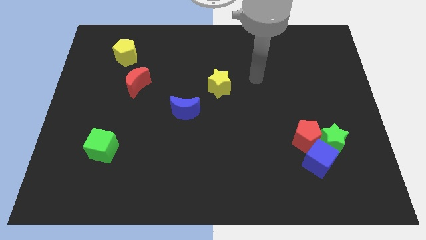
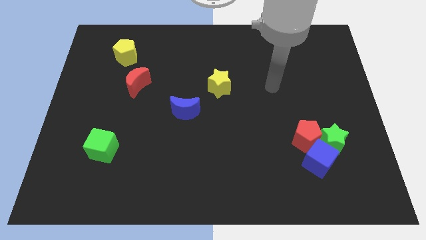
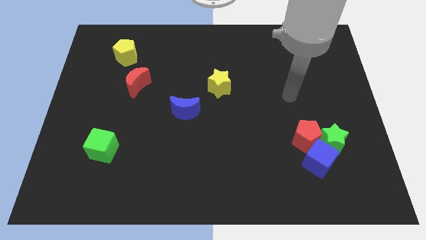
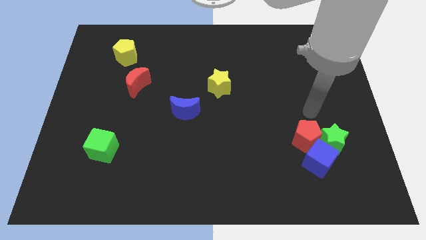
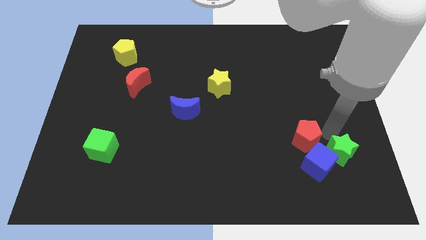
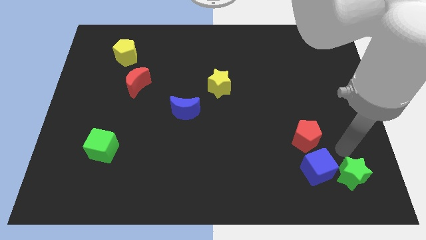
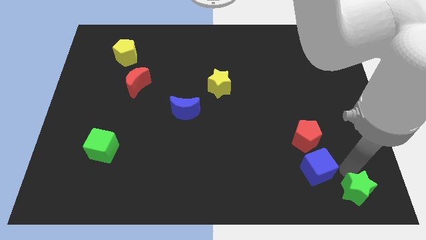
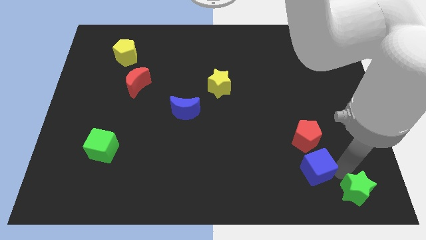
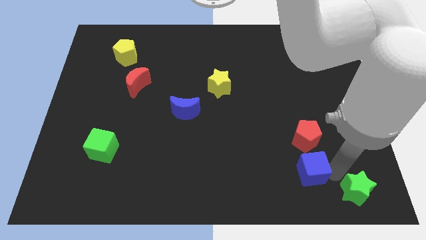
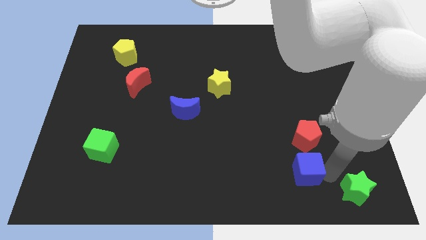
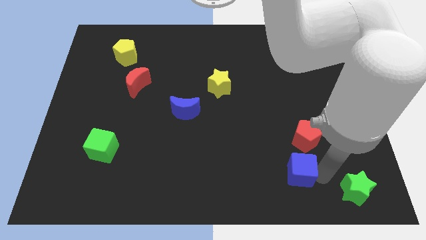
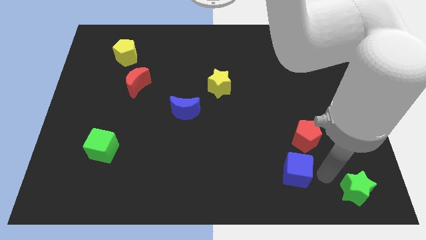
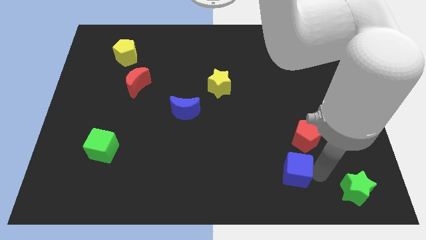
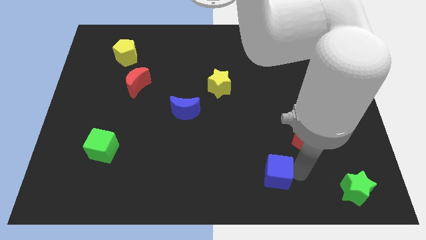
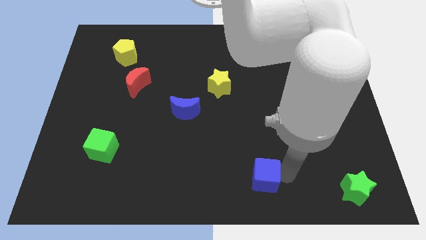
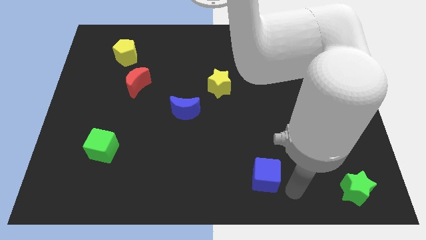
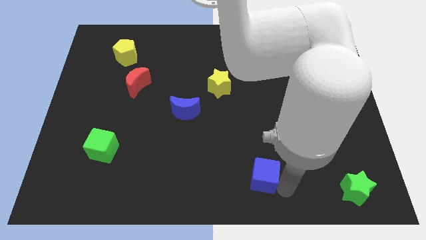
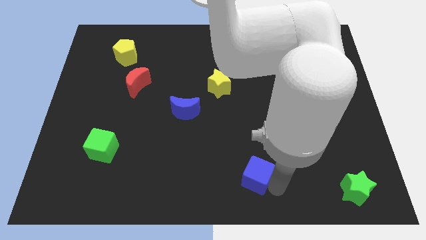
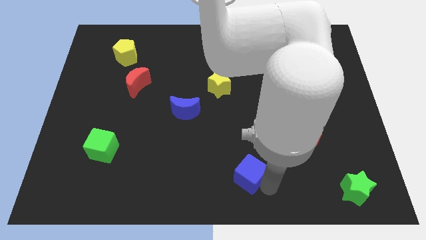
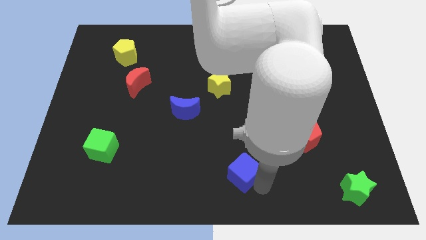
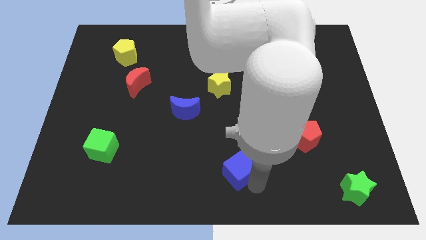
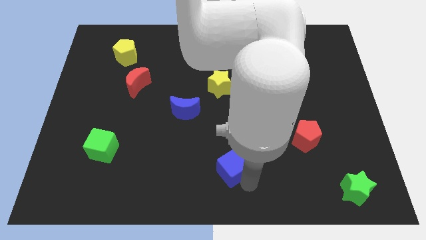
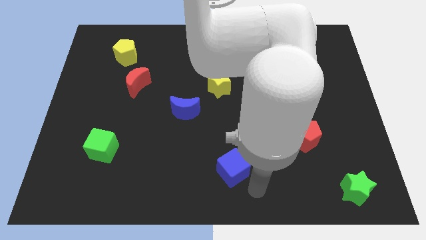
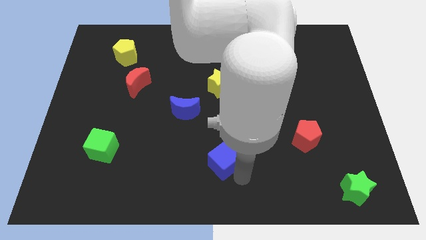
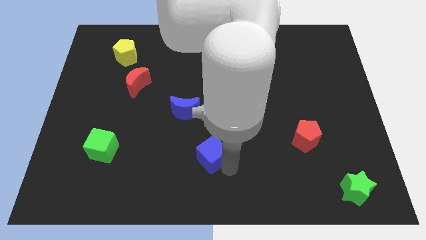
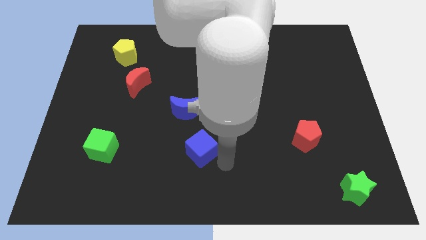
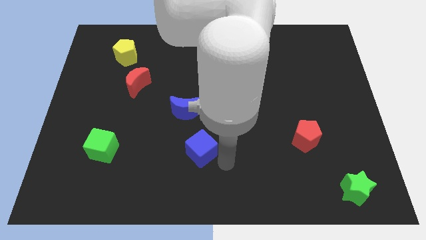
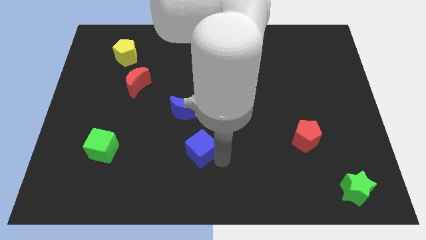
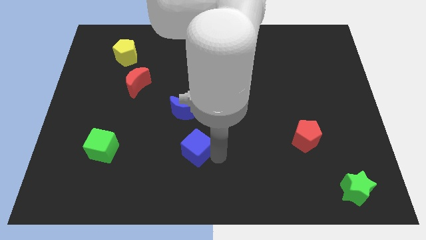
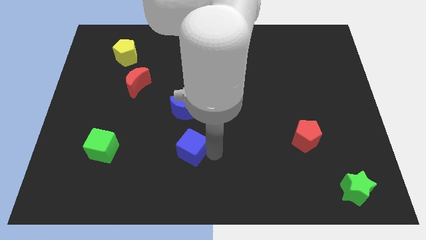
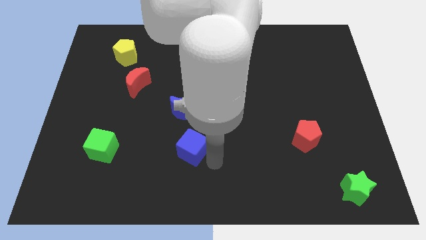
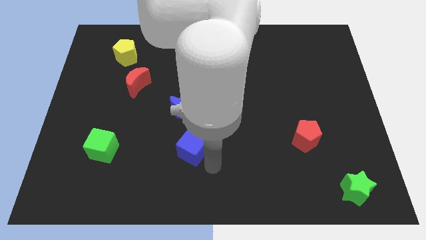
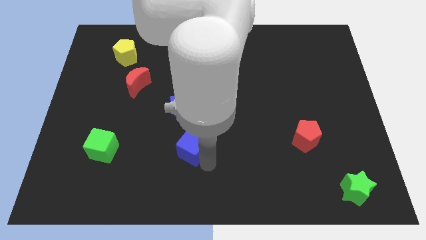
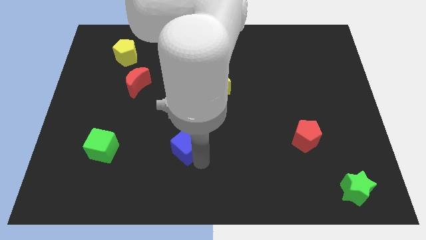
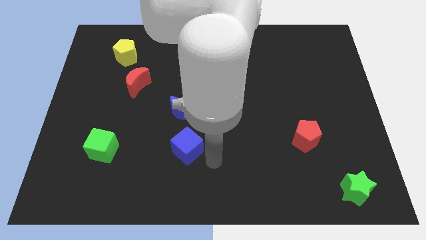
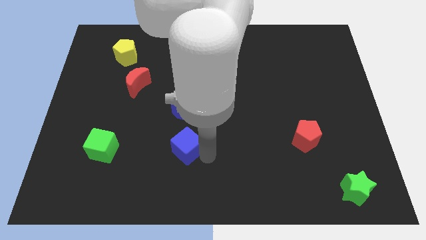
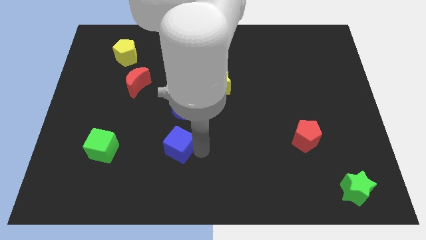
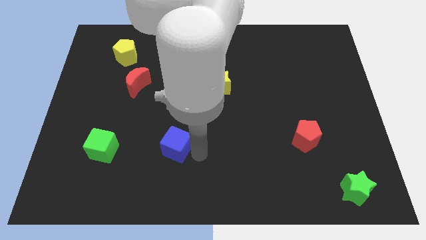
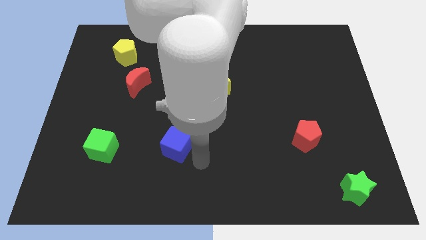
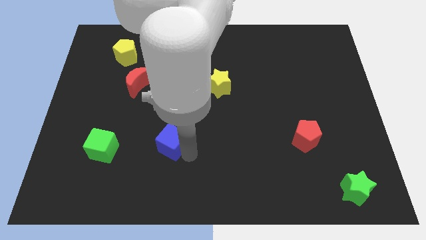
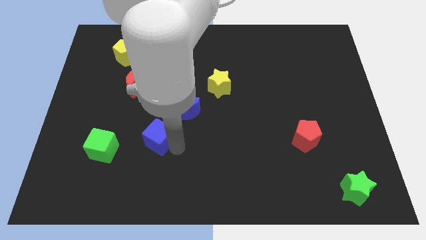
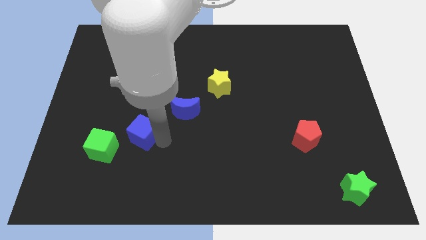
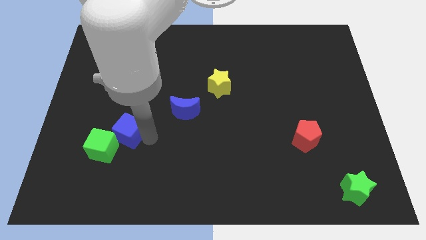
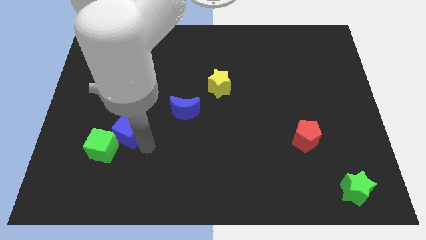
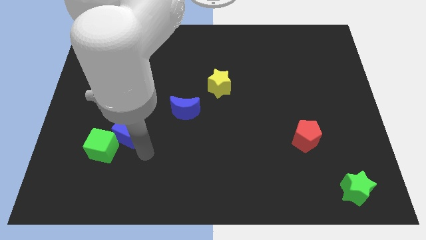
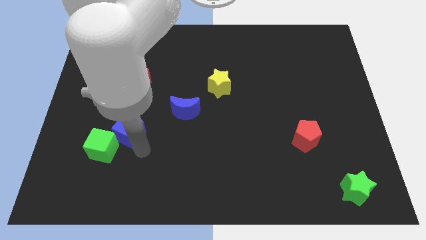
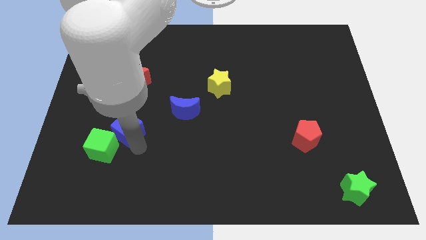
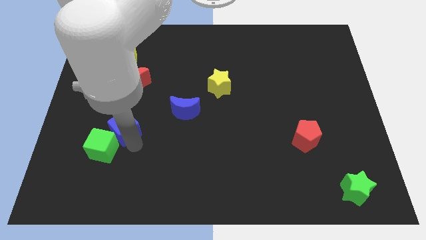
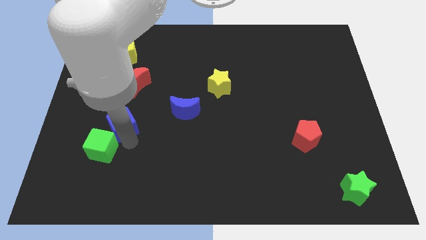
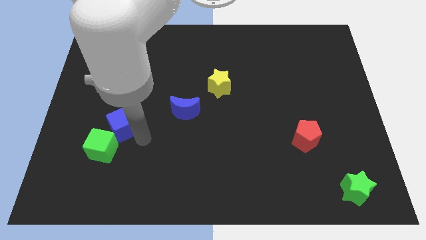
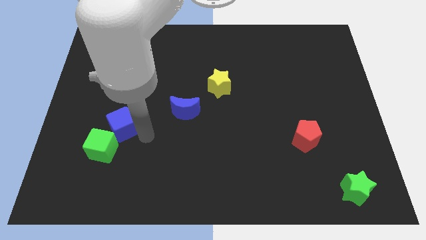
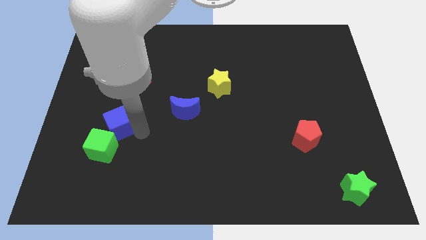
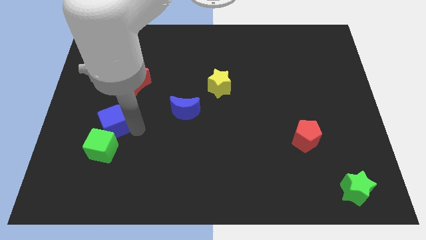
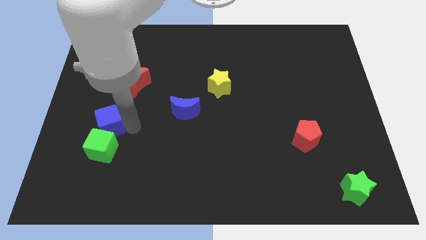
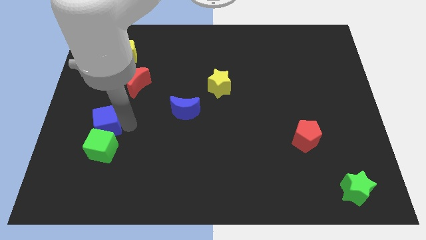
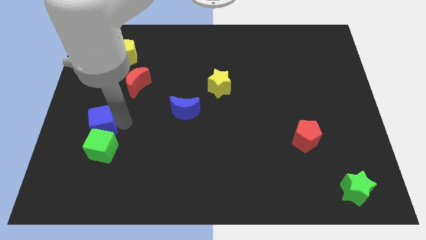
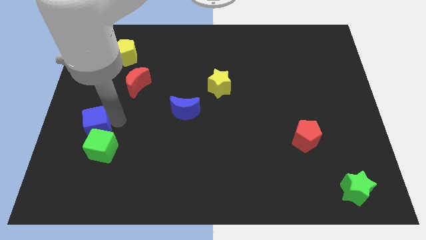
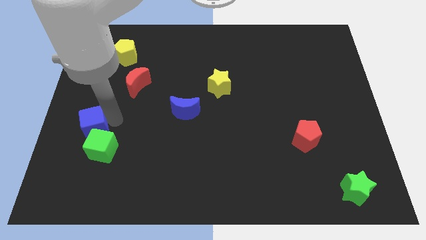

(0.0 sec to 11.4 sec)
slide the blue cube to the center left

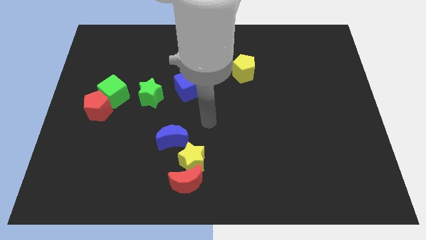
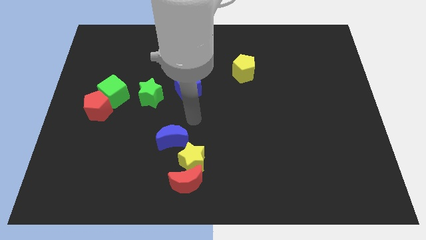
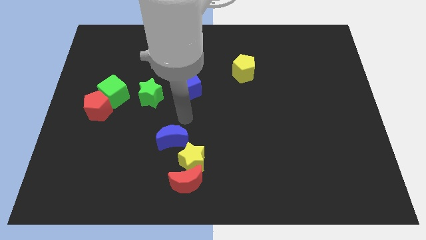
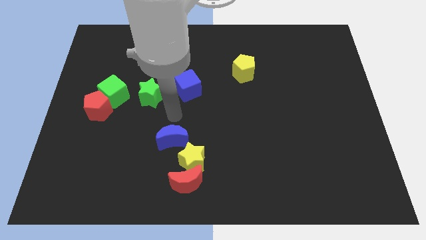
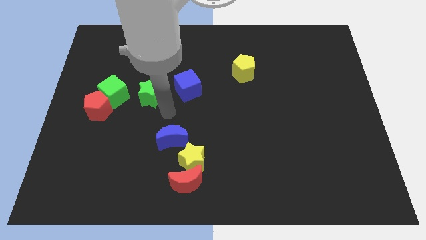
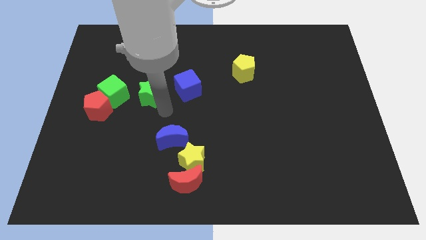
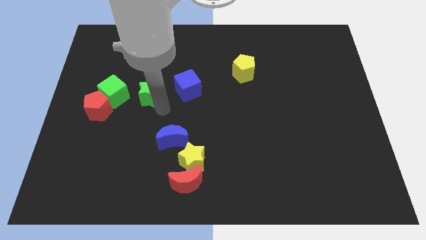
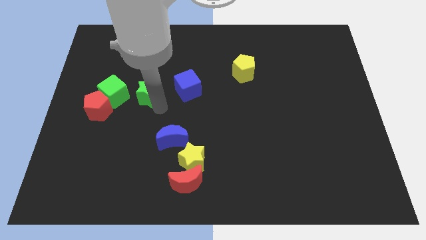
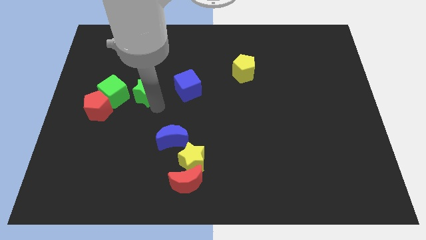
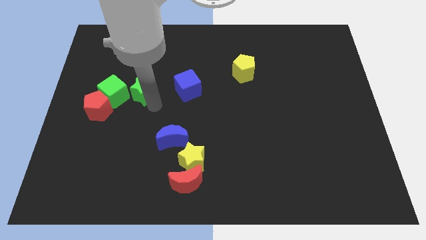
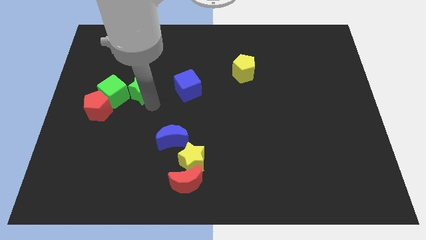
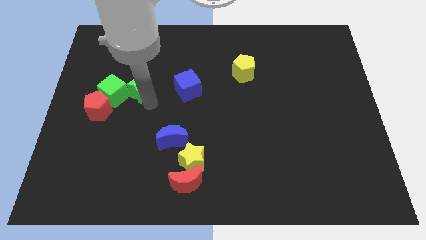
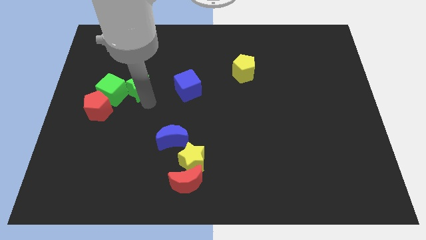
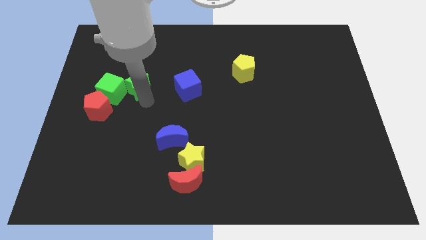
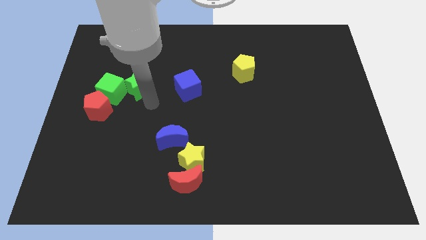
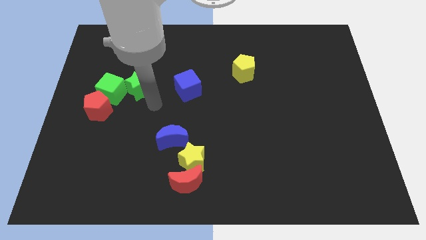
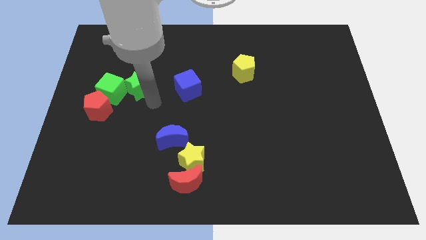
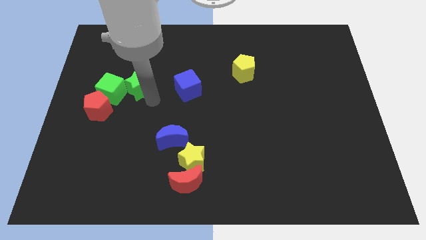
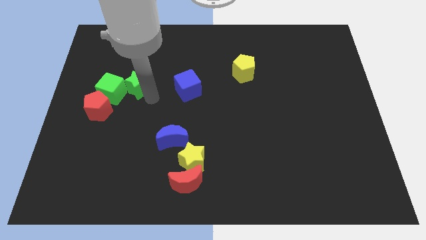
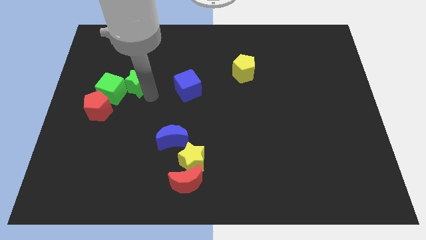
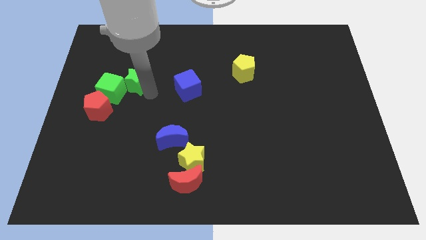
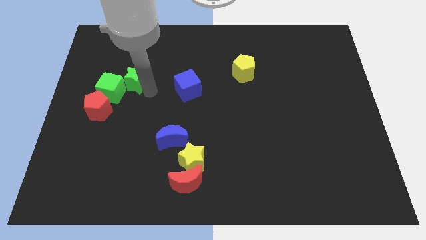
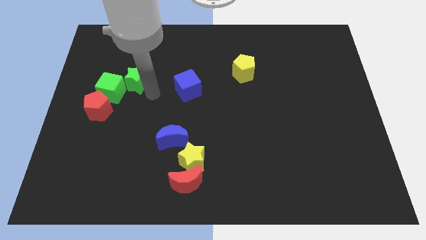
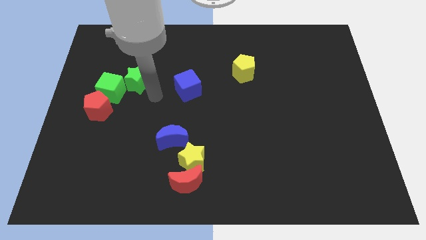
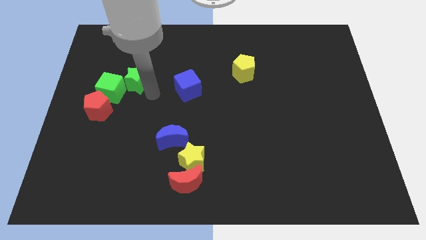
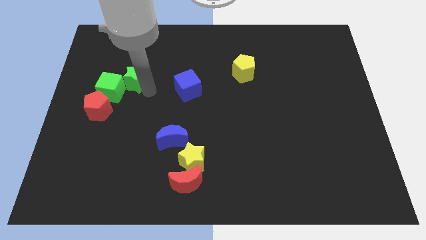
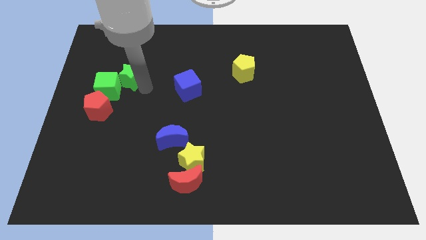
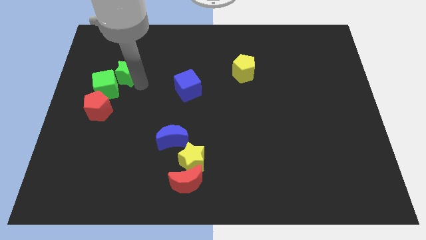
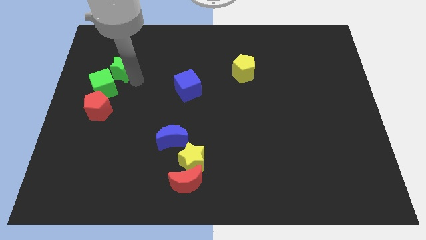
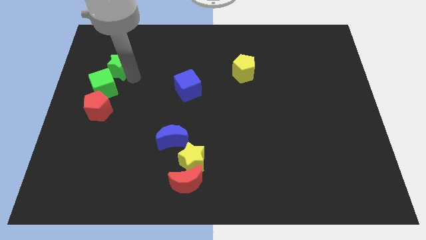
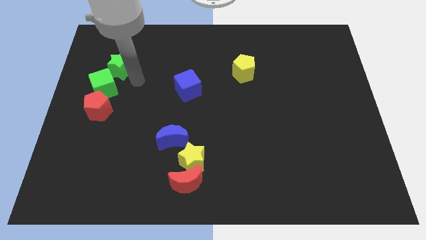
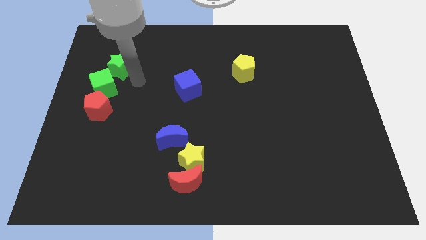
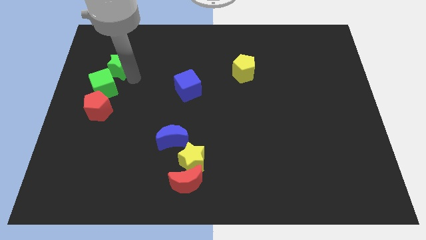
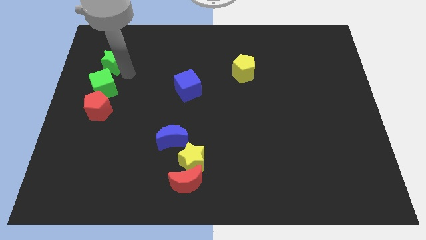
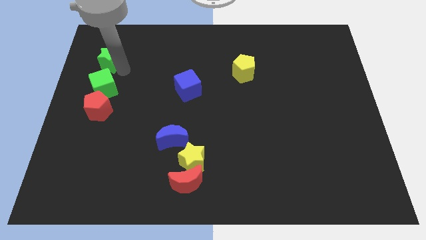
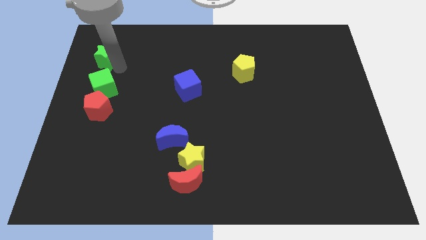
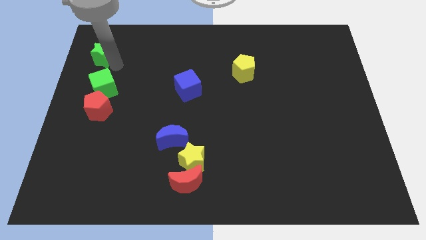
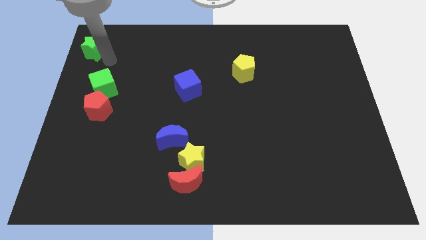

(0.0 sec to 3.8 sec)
push the green star to the top left corner
